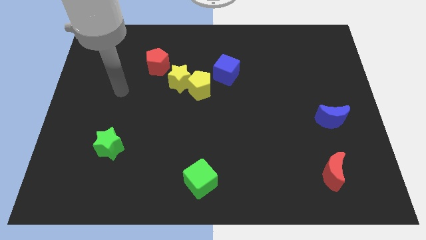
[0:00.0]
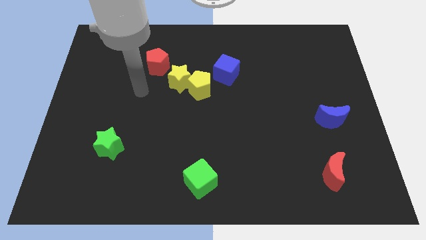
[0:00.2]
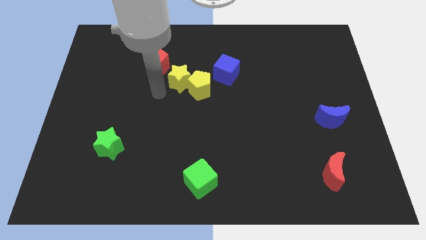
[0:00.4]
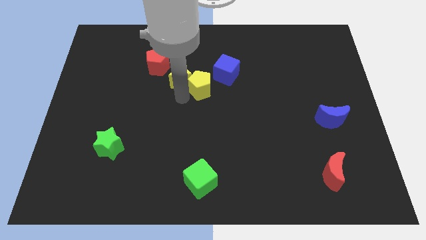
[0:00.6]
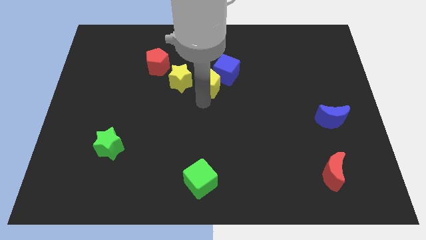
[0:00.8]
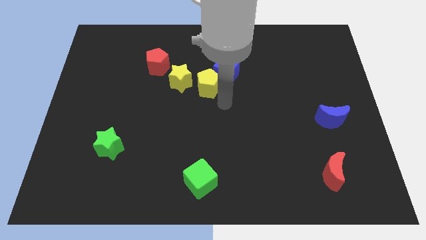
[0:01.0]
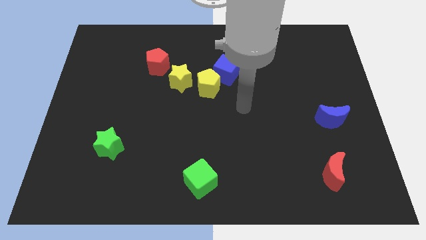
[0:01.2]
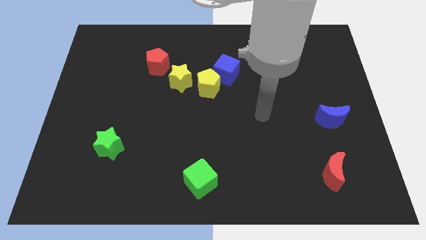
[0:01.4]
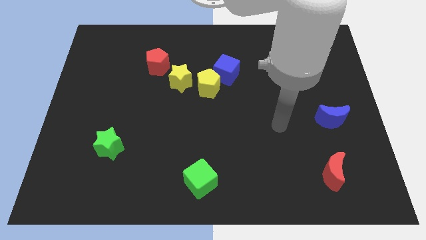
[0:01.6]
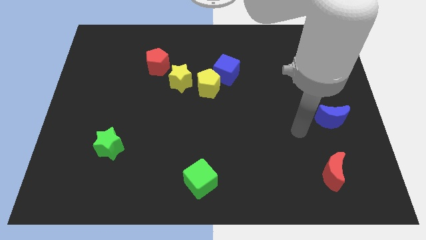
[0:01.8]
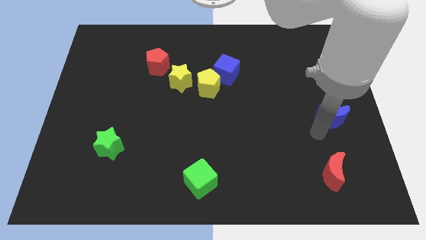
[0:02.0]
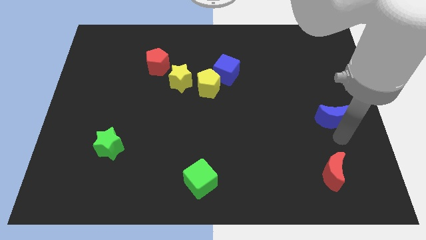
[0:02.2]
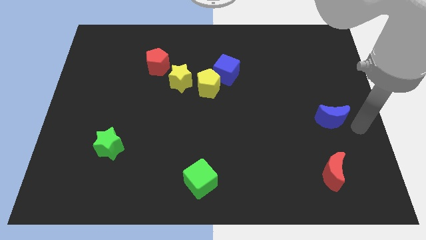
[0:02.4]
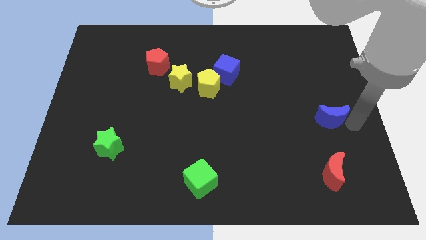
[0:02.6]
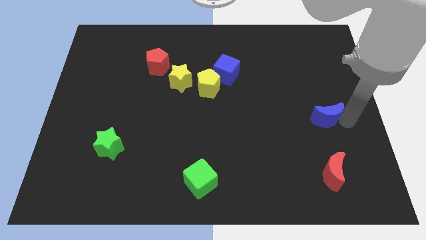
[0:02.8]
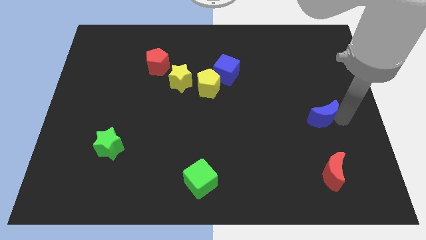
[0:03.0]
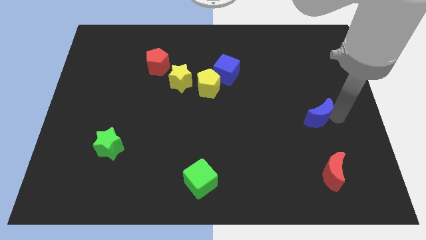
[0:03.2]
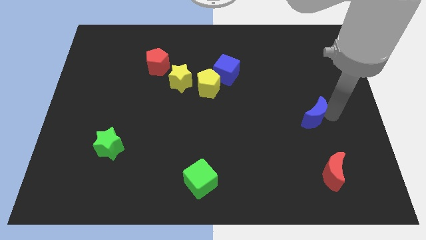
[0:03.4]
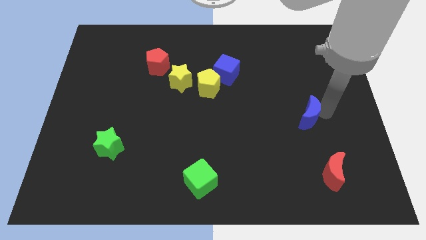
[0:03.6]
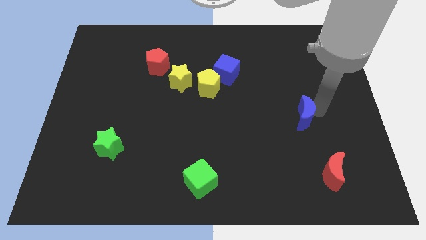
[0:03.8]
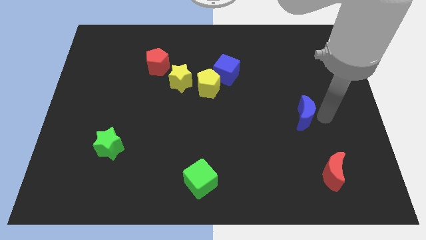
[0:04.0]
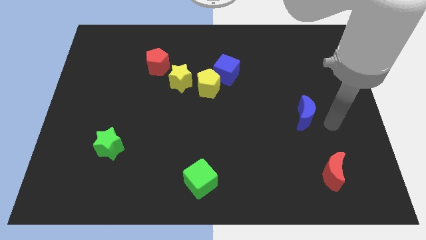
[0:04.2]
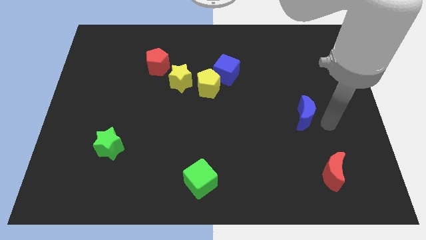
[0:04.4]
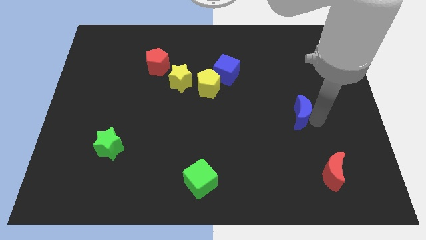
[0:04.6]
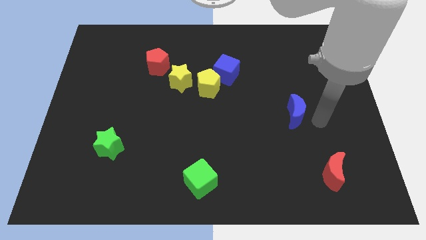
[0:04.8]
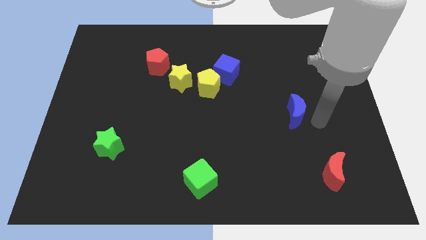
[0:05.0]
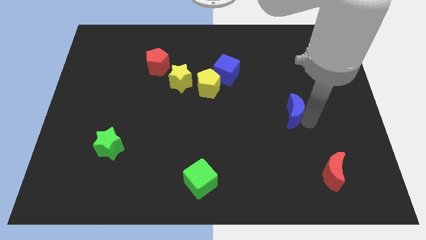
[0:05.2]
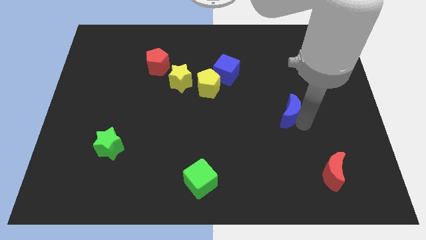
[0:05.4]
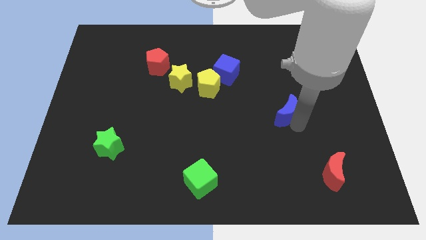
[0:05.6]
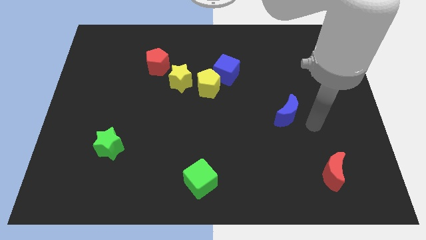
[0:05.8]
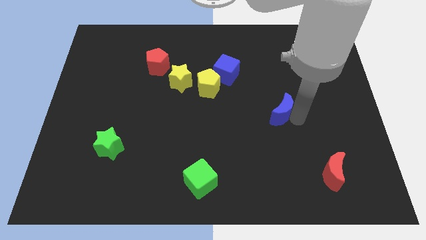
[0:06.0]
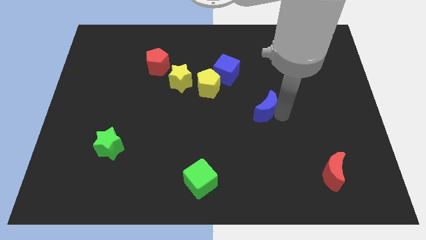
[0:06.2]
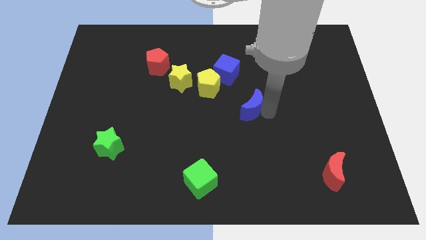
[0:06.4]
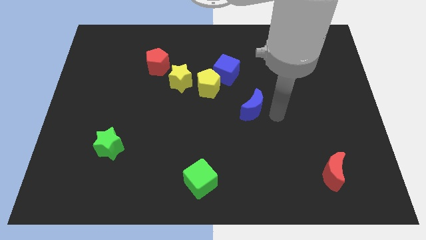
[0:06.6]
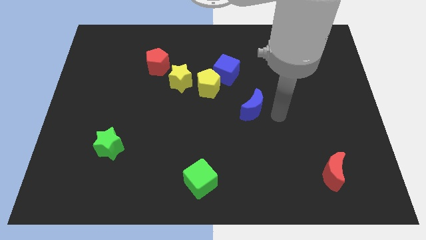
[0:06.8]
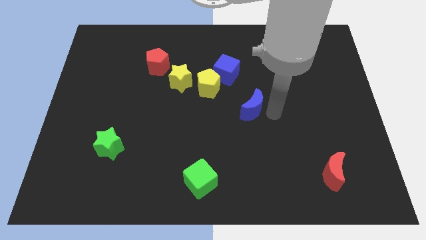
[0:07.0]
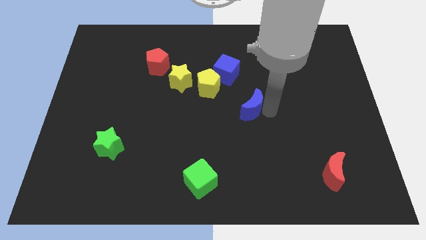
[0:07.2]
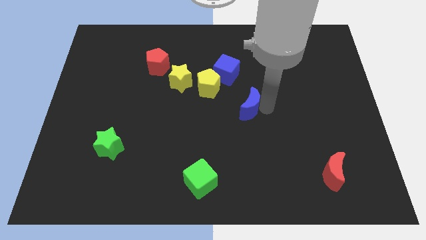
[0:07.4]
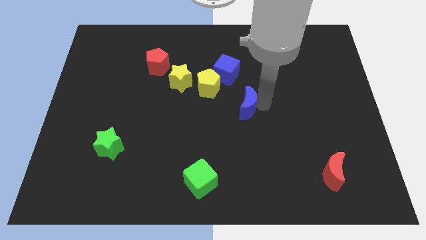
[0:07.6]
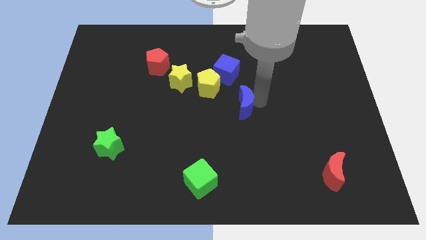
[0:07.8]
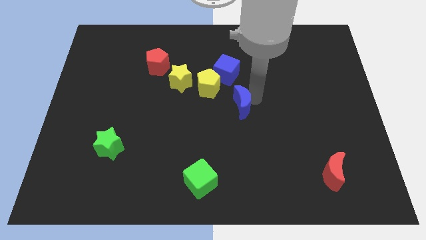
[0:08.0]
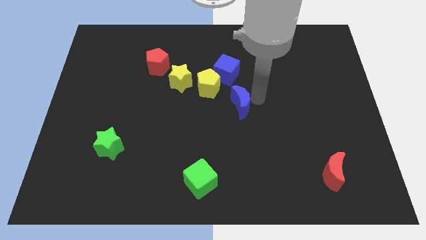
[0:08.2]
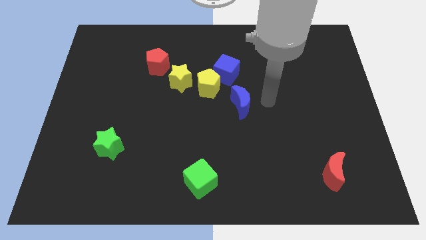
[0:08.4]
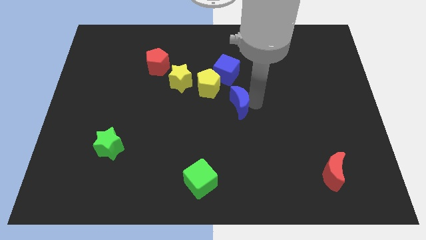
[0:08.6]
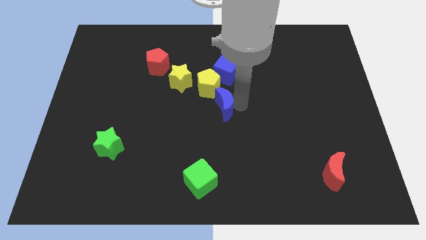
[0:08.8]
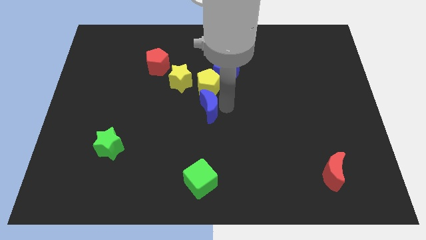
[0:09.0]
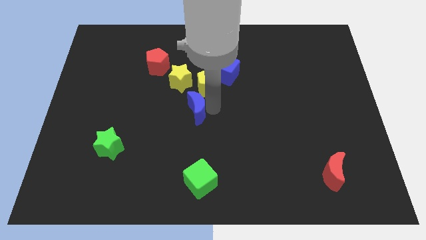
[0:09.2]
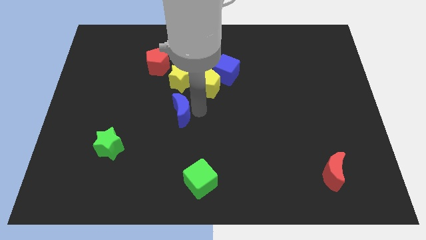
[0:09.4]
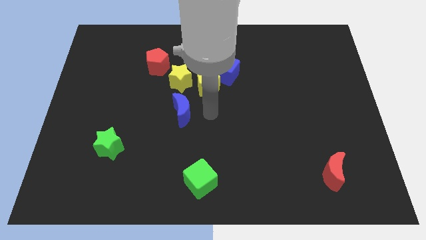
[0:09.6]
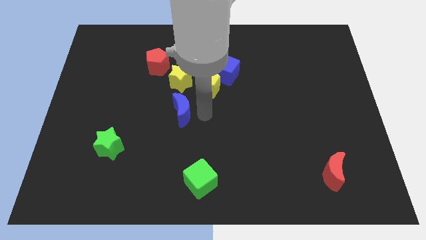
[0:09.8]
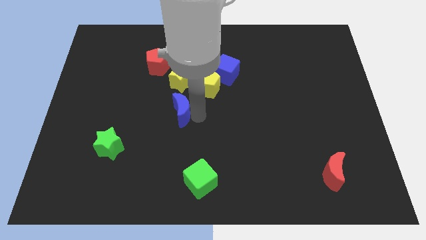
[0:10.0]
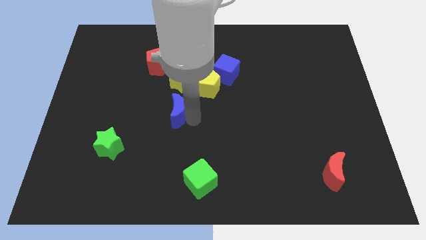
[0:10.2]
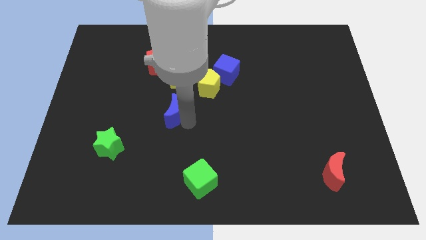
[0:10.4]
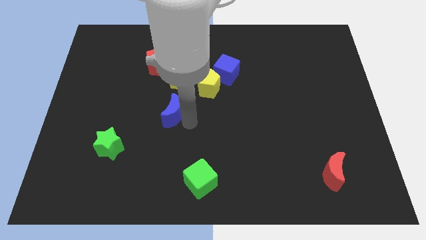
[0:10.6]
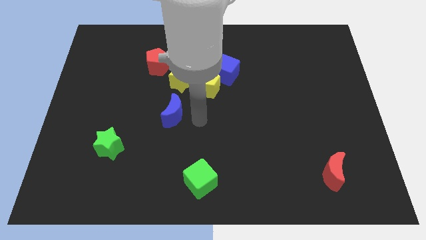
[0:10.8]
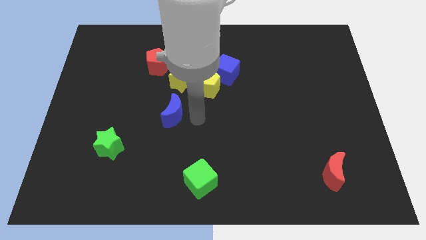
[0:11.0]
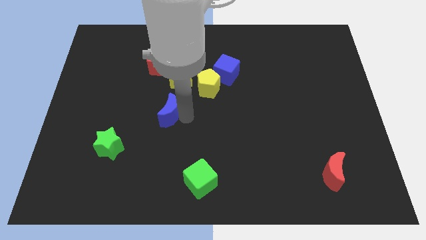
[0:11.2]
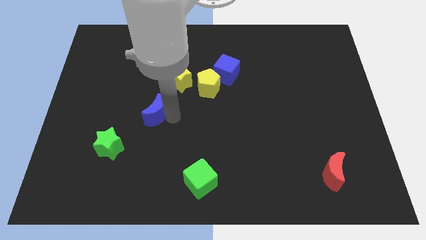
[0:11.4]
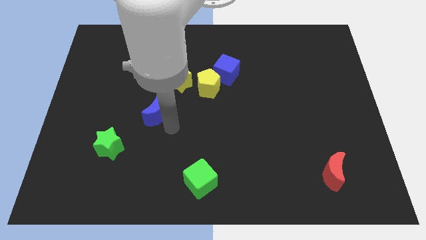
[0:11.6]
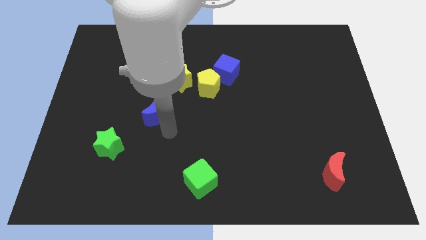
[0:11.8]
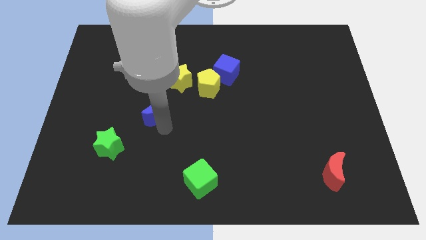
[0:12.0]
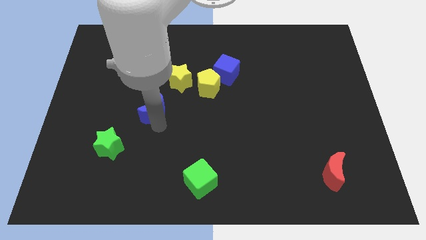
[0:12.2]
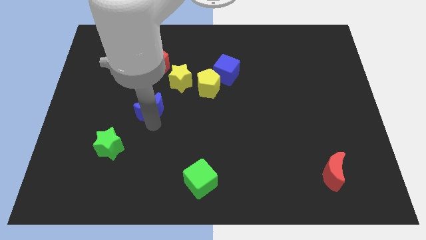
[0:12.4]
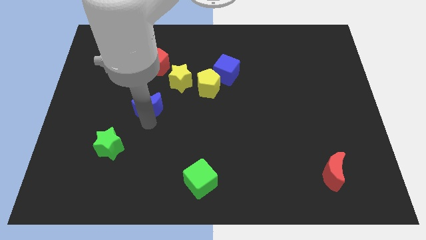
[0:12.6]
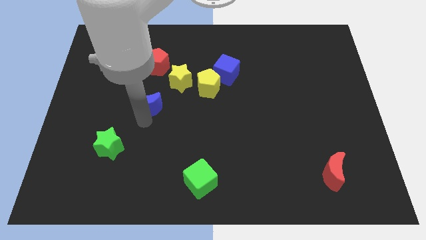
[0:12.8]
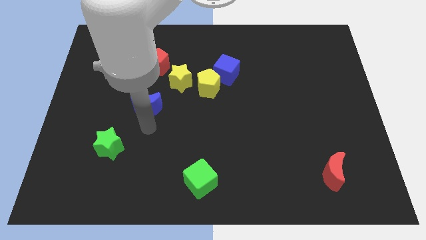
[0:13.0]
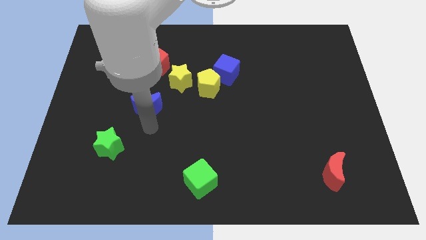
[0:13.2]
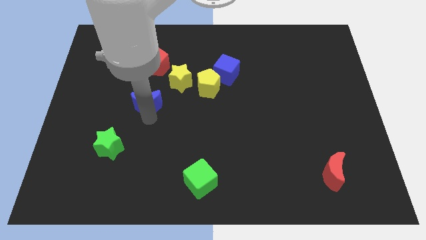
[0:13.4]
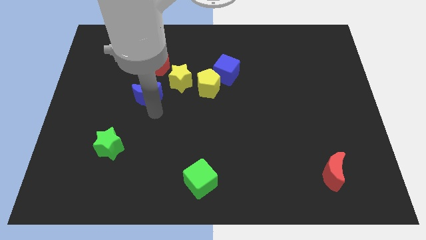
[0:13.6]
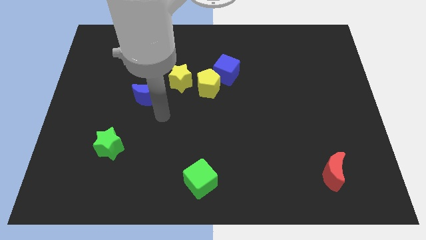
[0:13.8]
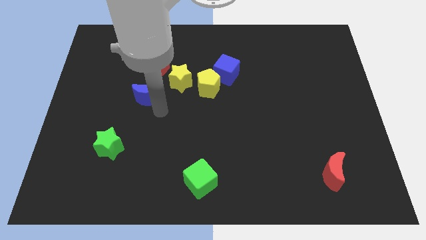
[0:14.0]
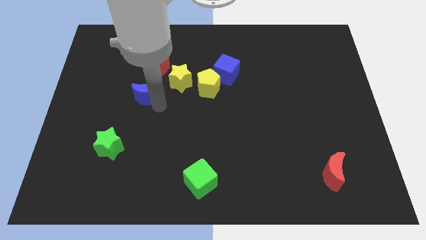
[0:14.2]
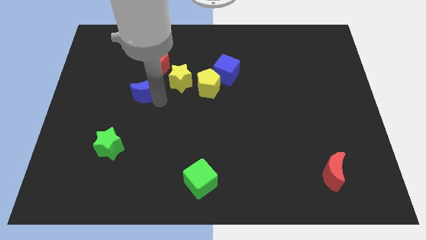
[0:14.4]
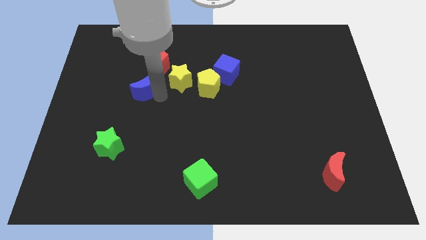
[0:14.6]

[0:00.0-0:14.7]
slide the blue moon to the bottom left side of the red pentagon

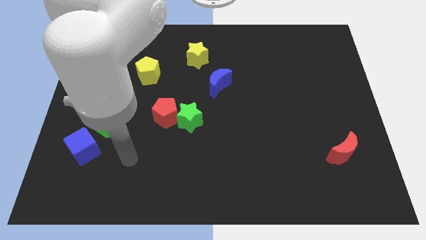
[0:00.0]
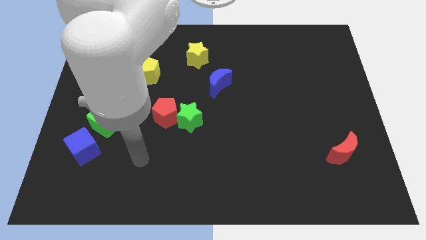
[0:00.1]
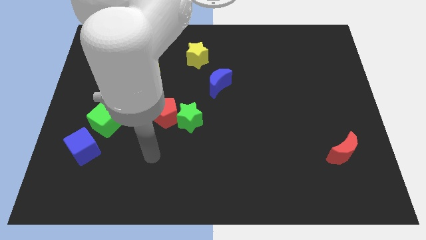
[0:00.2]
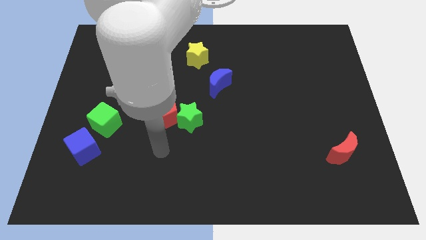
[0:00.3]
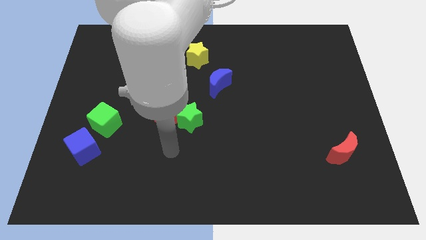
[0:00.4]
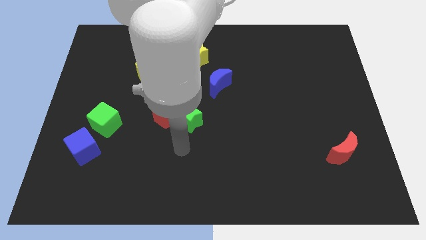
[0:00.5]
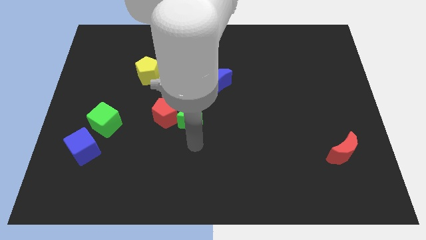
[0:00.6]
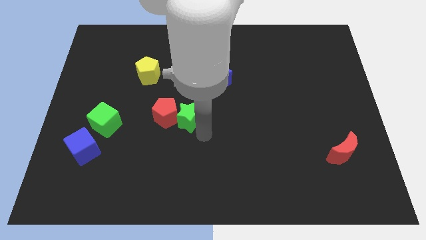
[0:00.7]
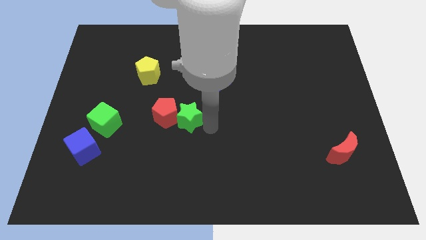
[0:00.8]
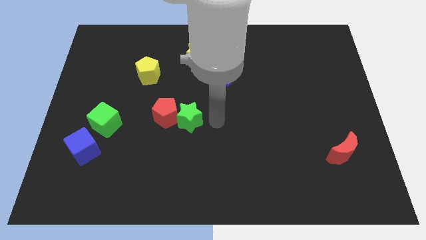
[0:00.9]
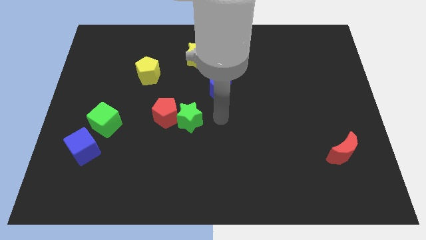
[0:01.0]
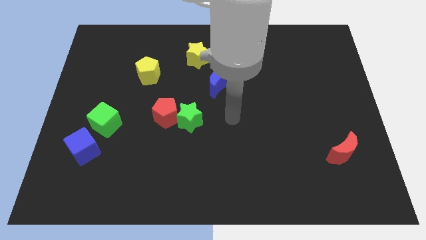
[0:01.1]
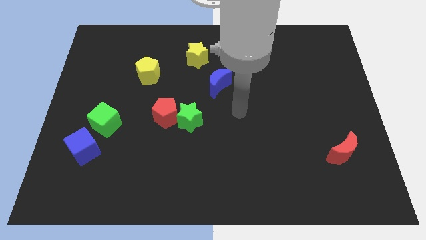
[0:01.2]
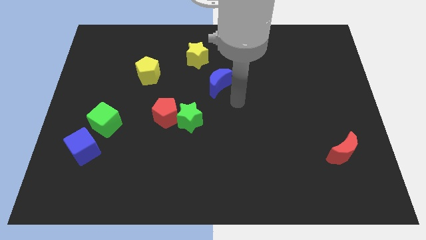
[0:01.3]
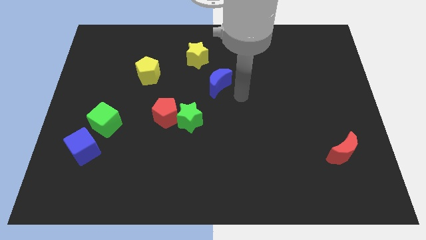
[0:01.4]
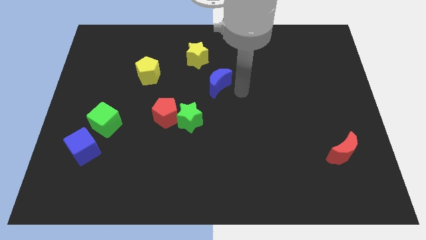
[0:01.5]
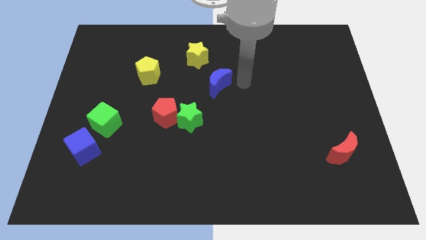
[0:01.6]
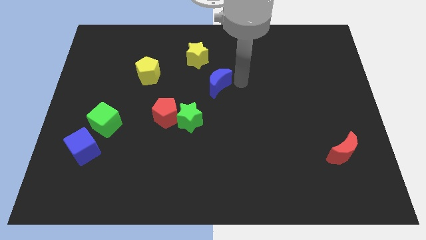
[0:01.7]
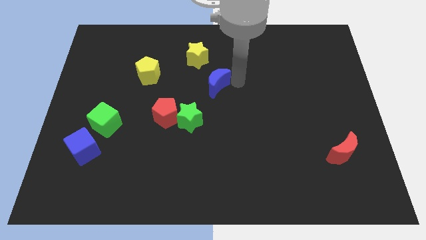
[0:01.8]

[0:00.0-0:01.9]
slide the blue moon below the yellow star
